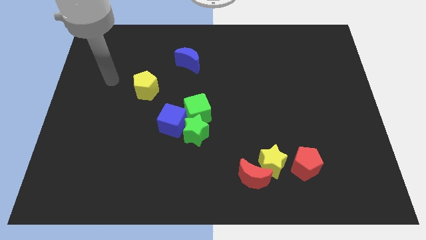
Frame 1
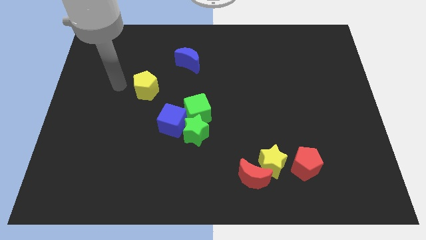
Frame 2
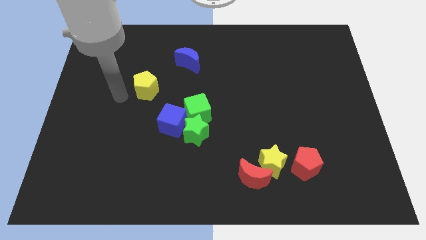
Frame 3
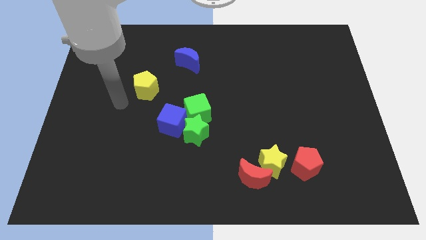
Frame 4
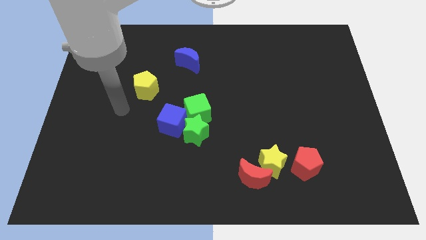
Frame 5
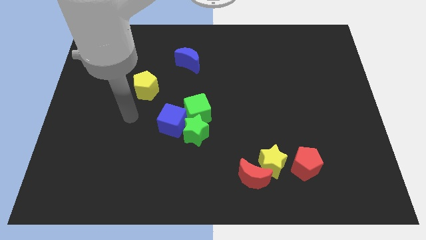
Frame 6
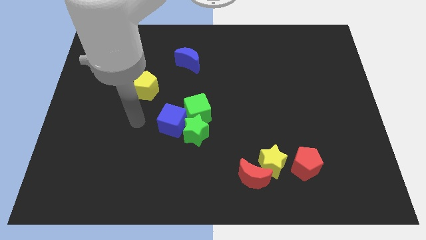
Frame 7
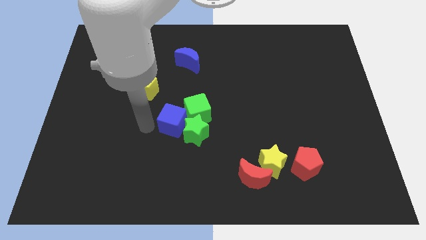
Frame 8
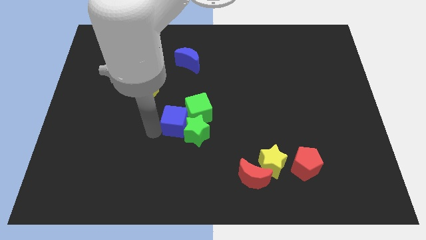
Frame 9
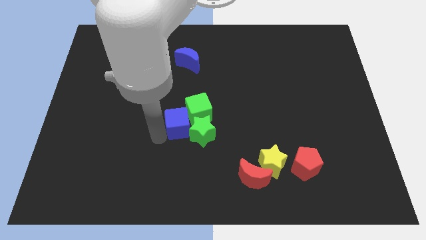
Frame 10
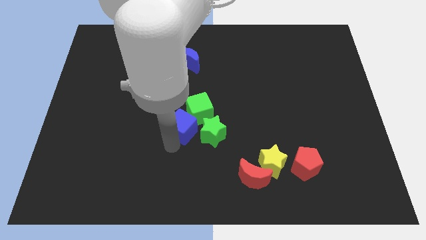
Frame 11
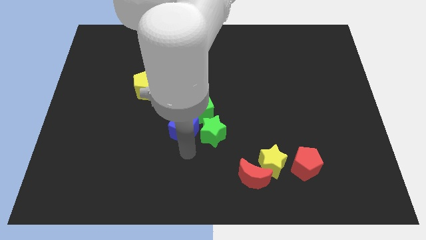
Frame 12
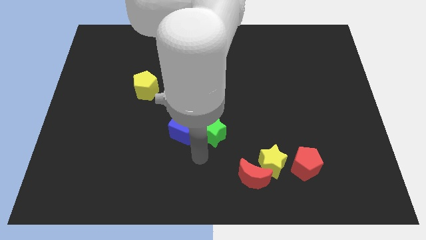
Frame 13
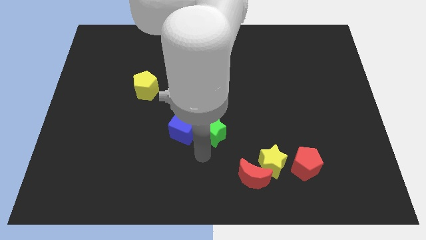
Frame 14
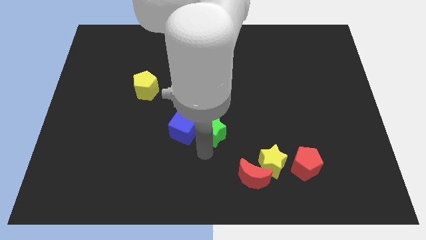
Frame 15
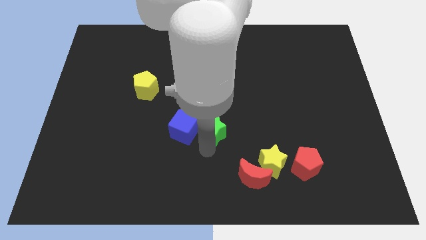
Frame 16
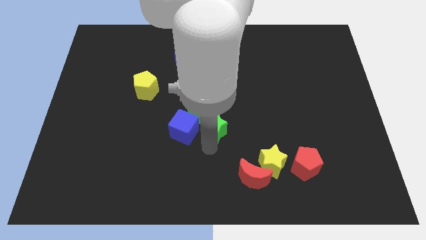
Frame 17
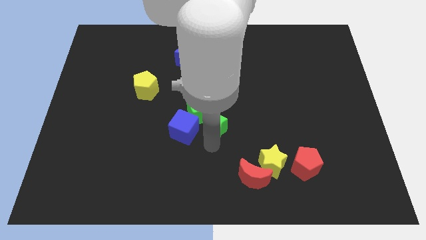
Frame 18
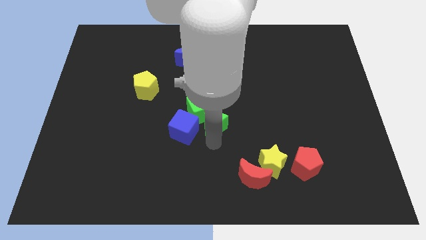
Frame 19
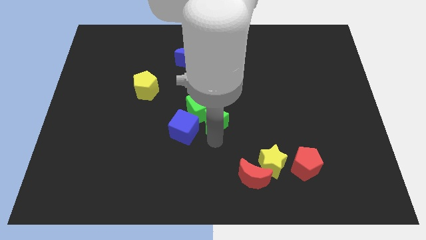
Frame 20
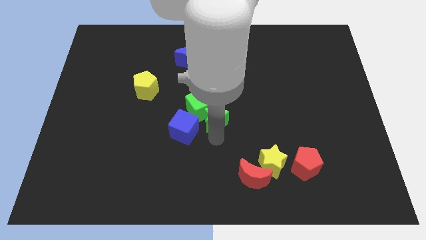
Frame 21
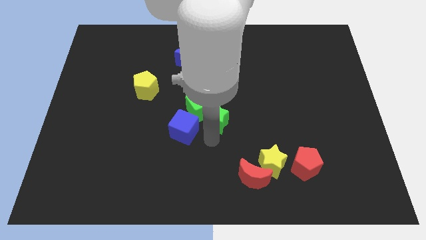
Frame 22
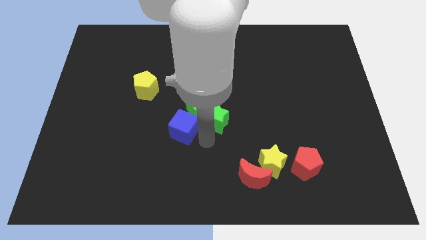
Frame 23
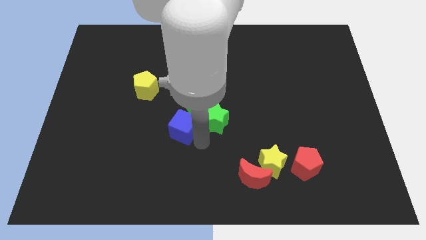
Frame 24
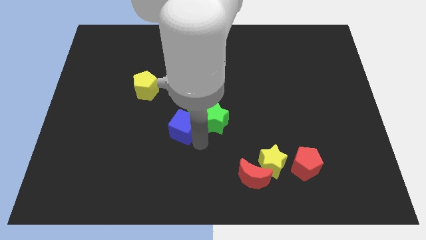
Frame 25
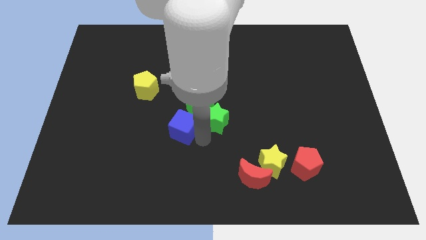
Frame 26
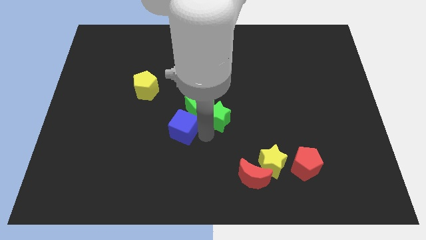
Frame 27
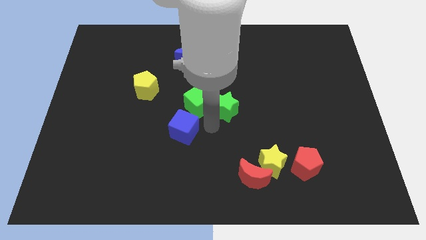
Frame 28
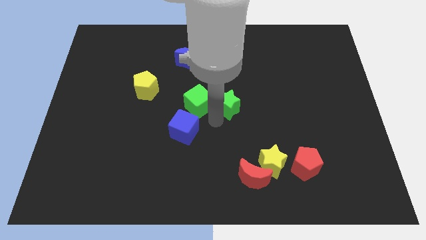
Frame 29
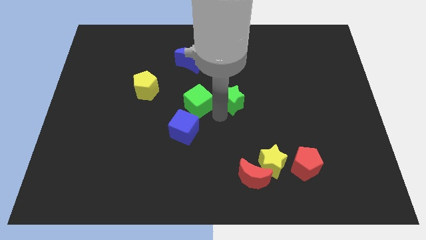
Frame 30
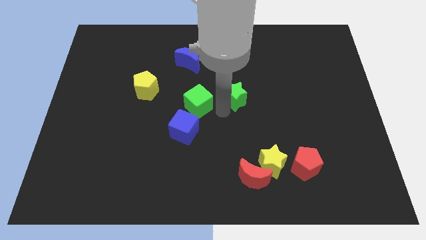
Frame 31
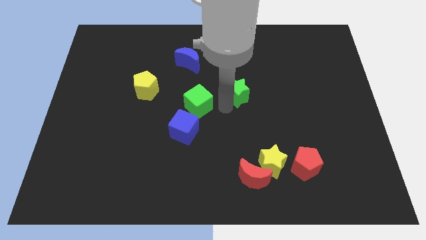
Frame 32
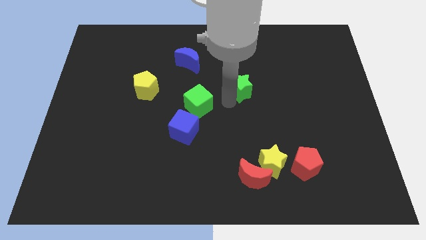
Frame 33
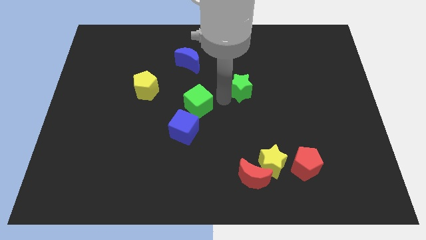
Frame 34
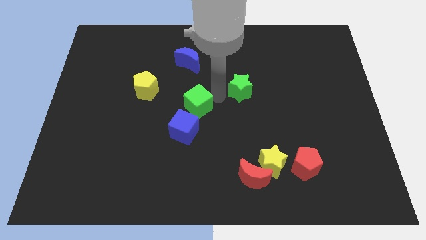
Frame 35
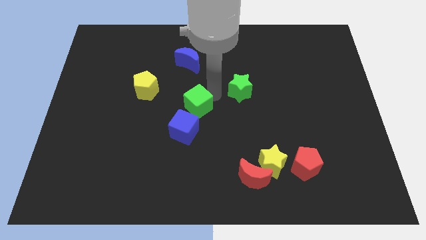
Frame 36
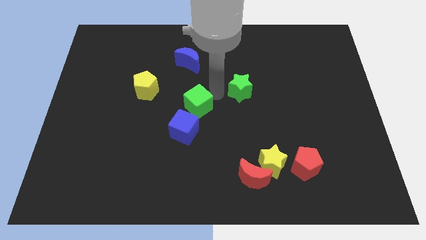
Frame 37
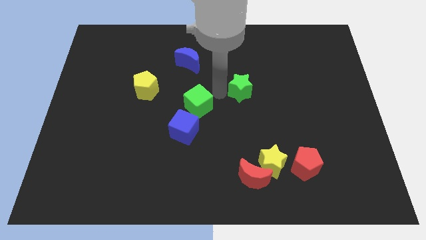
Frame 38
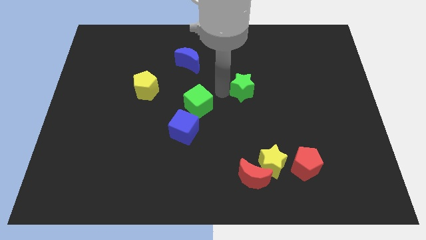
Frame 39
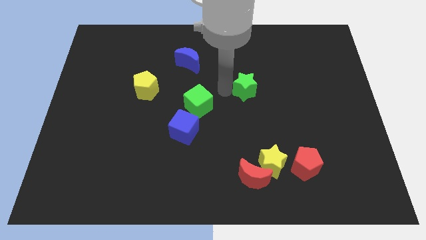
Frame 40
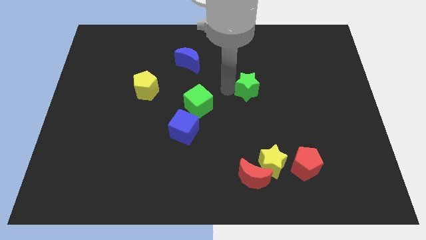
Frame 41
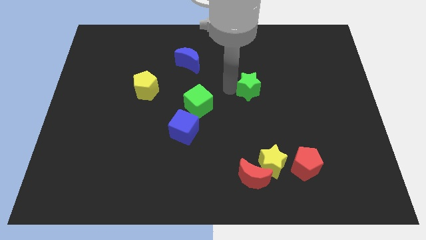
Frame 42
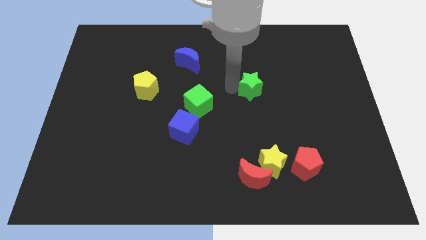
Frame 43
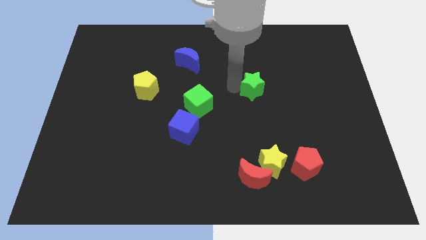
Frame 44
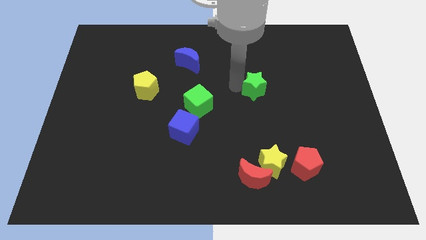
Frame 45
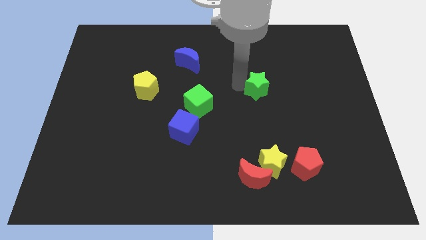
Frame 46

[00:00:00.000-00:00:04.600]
slide the green star up and to the right

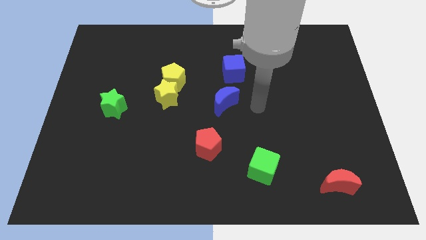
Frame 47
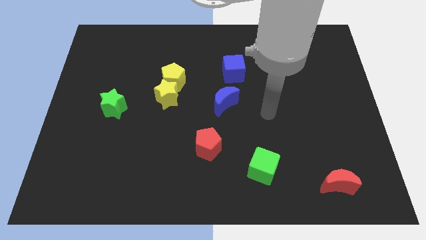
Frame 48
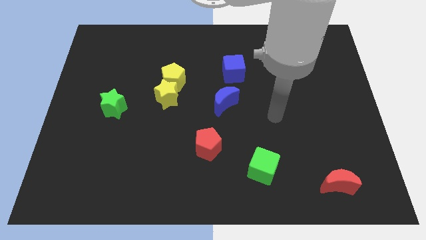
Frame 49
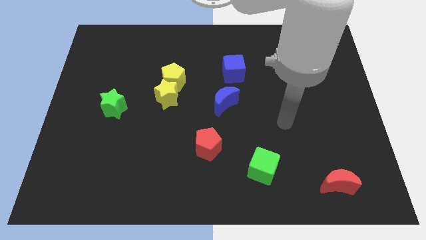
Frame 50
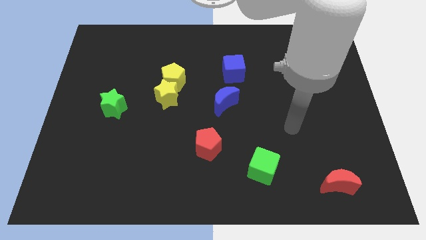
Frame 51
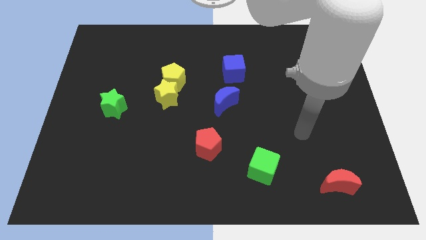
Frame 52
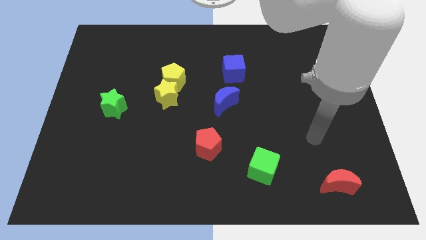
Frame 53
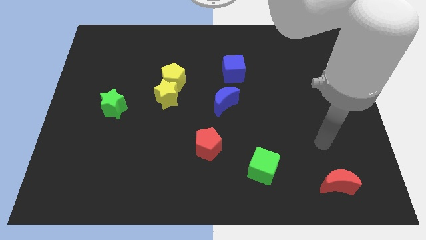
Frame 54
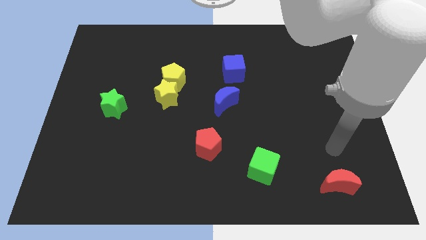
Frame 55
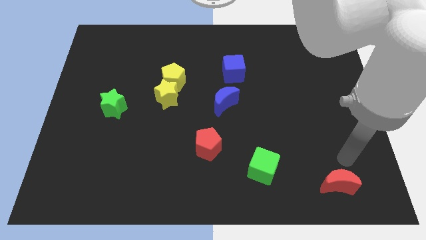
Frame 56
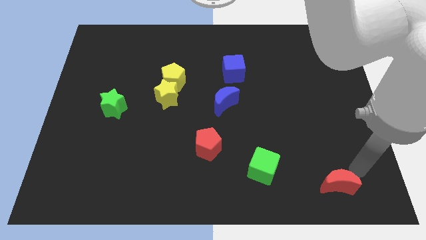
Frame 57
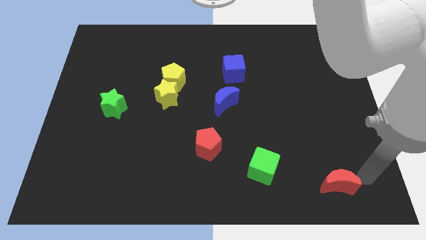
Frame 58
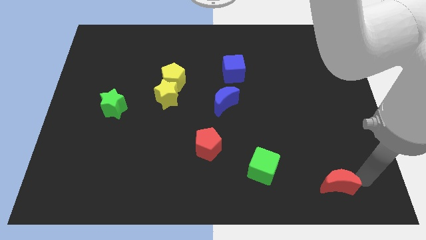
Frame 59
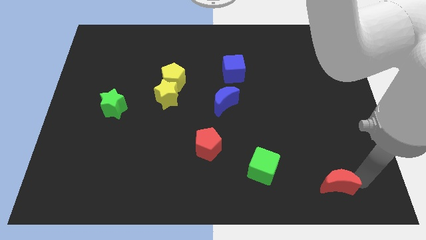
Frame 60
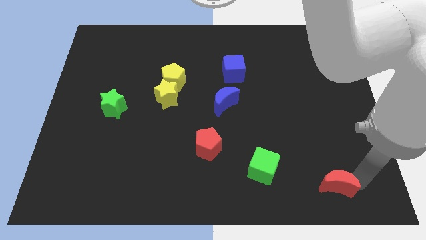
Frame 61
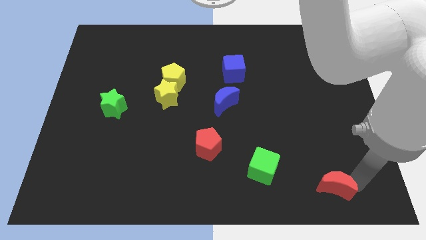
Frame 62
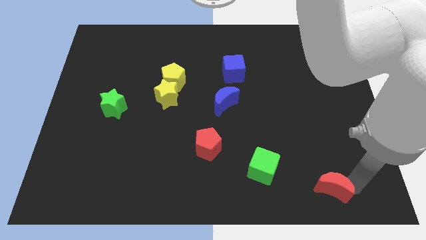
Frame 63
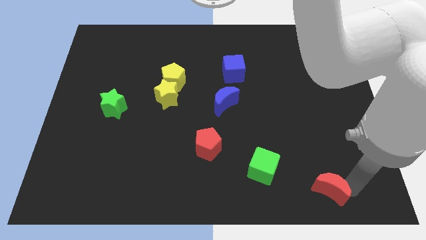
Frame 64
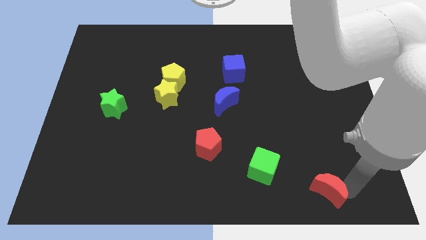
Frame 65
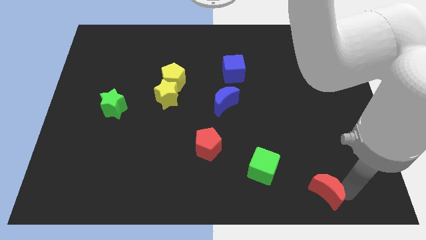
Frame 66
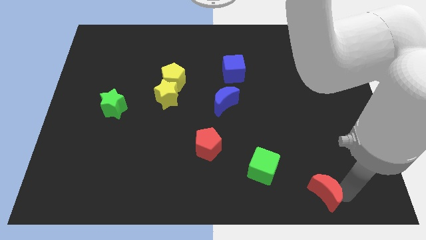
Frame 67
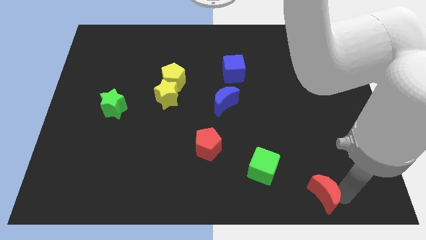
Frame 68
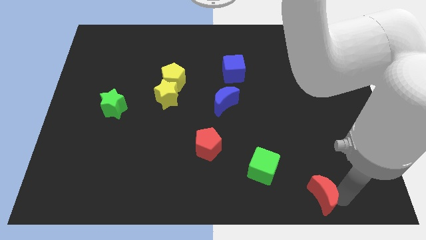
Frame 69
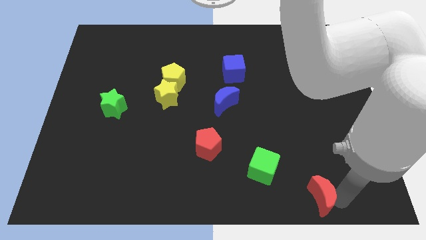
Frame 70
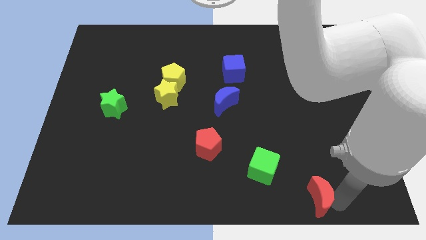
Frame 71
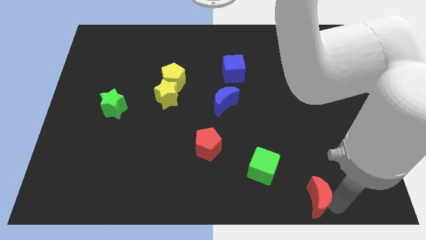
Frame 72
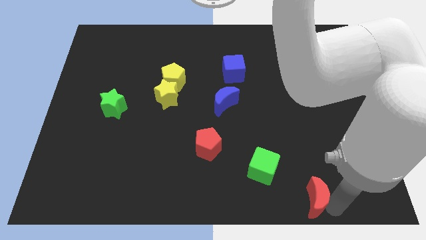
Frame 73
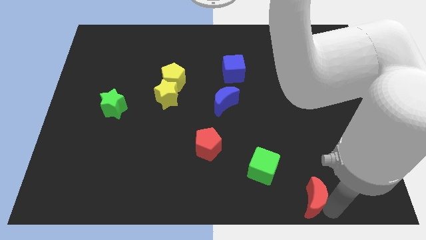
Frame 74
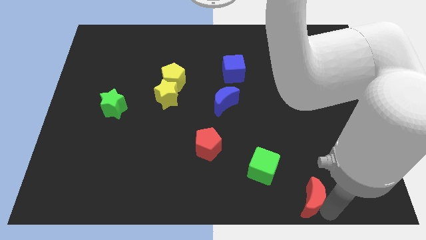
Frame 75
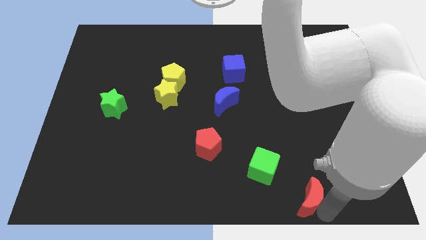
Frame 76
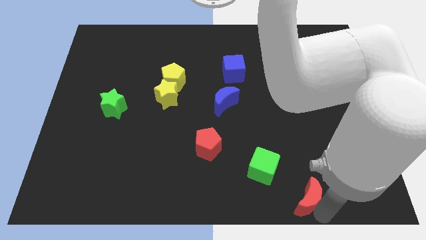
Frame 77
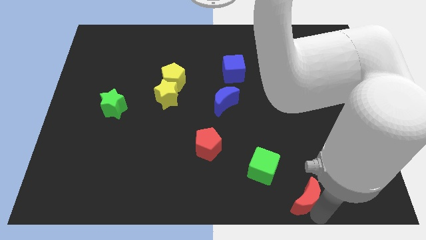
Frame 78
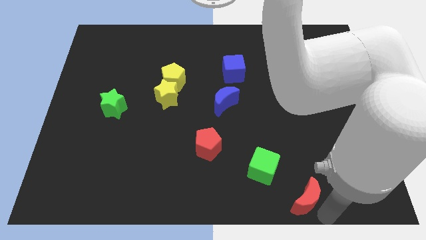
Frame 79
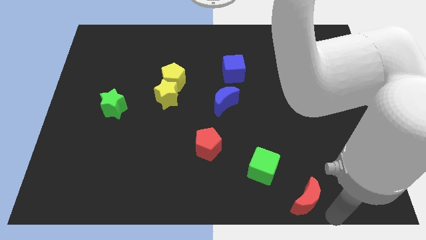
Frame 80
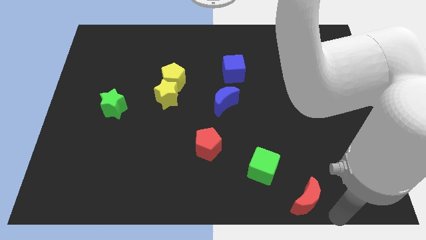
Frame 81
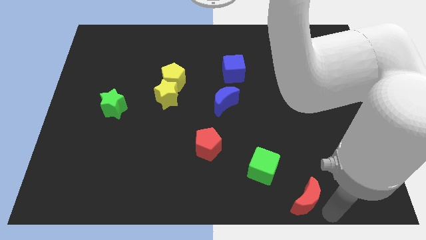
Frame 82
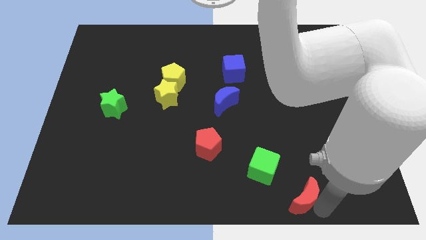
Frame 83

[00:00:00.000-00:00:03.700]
slide the red moon a bit to the left
